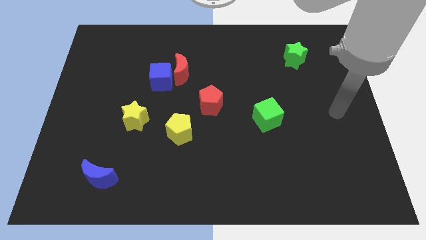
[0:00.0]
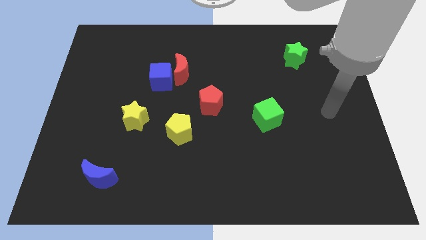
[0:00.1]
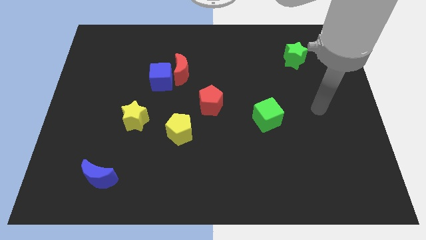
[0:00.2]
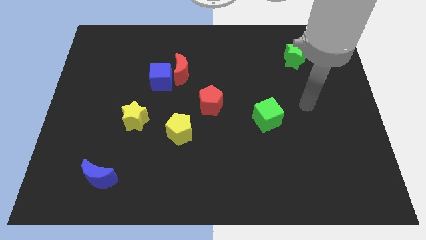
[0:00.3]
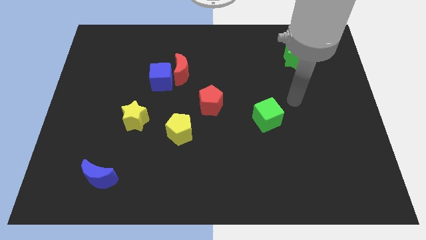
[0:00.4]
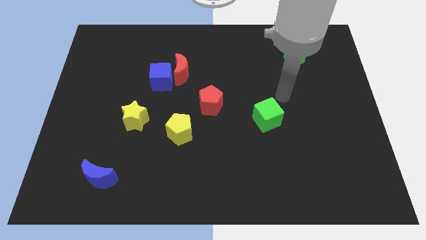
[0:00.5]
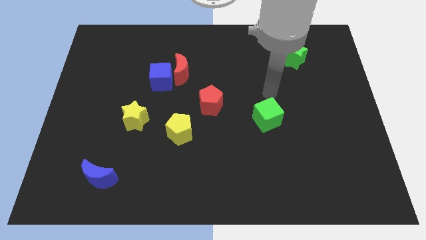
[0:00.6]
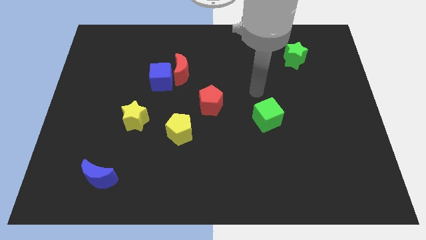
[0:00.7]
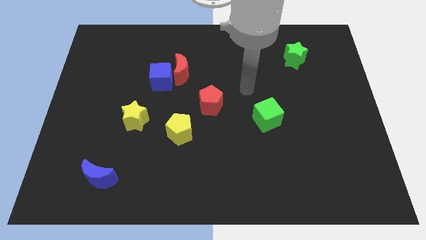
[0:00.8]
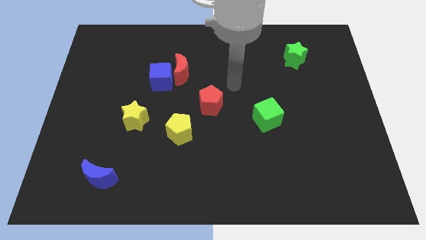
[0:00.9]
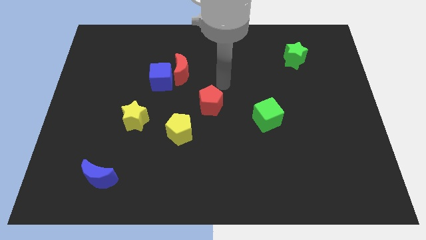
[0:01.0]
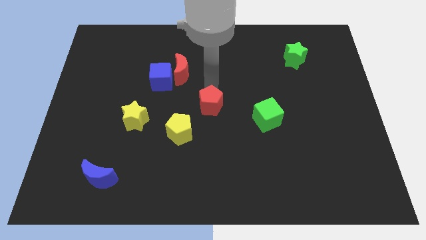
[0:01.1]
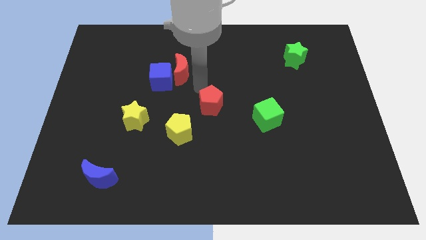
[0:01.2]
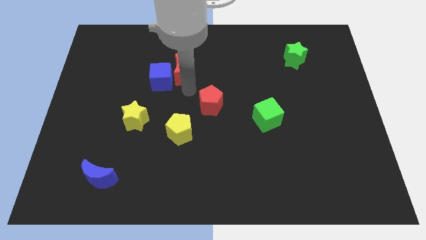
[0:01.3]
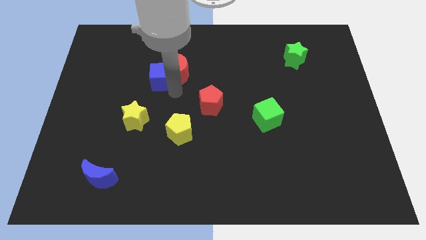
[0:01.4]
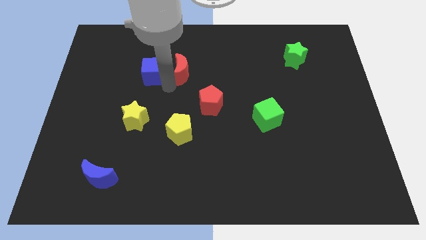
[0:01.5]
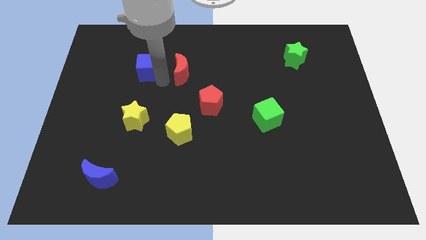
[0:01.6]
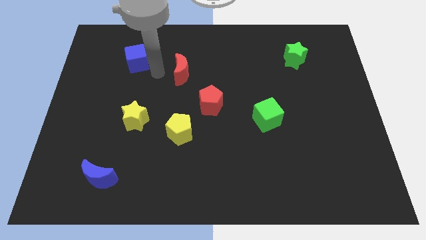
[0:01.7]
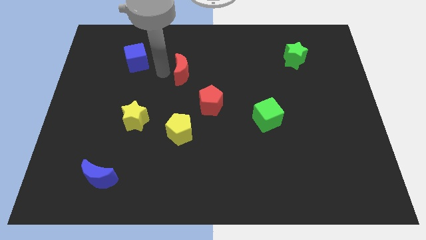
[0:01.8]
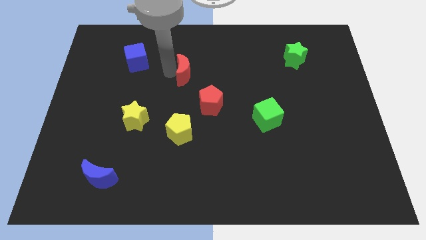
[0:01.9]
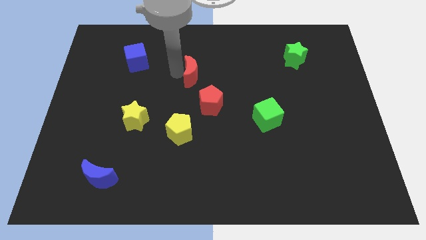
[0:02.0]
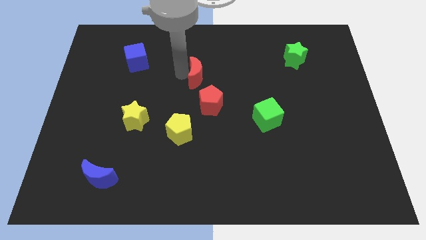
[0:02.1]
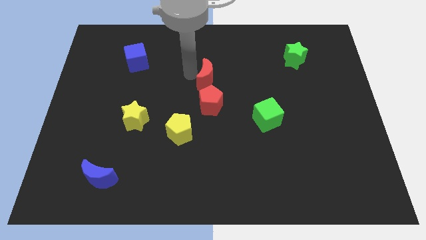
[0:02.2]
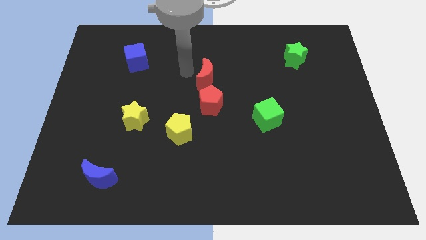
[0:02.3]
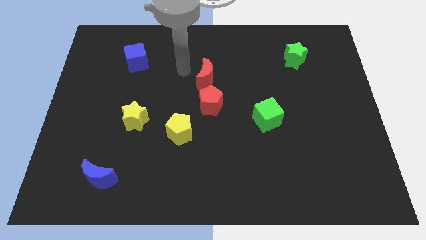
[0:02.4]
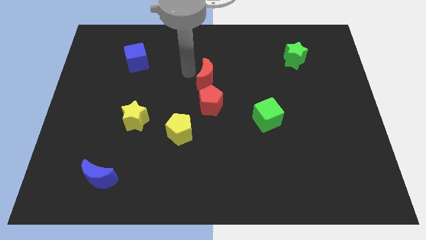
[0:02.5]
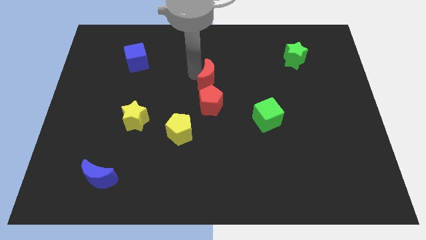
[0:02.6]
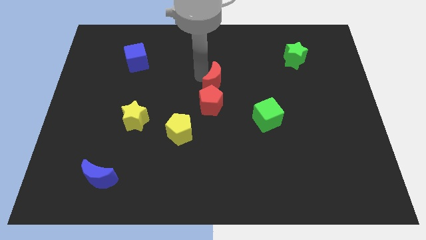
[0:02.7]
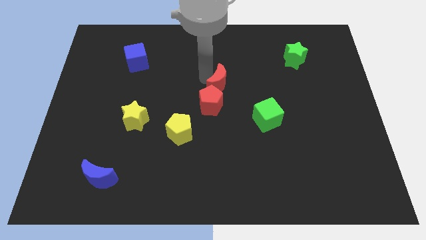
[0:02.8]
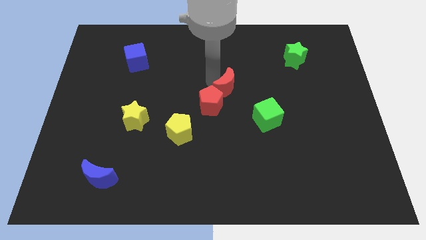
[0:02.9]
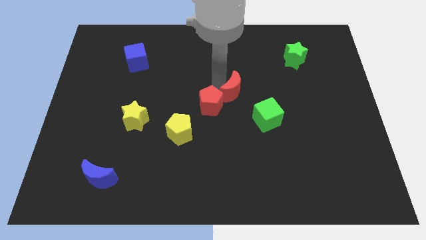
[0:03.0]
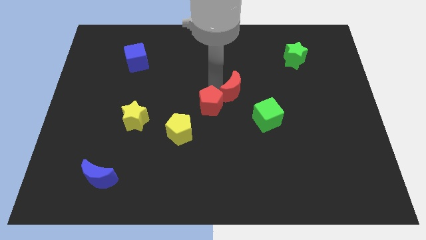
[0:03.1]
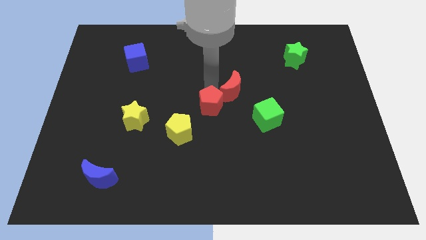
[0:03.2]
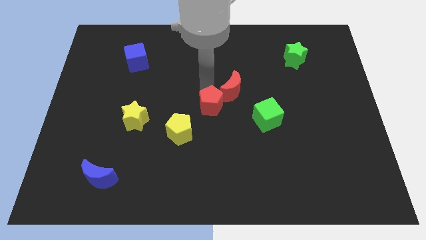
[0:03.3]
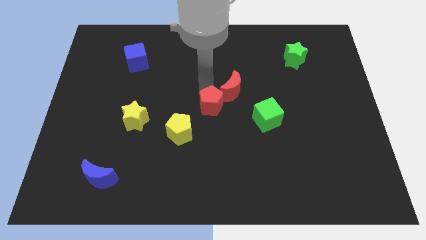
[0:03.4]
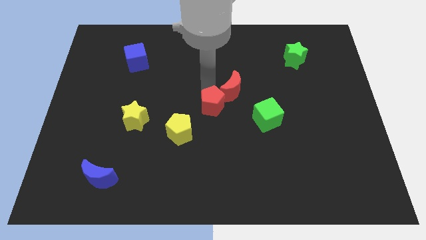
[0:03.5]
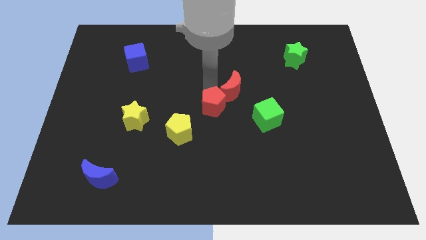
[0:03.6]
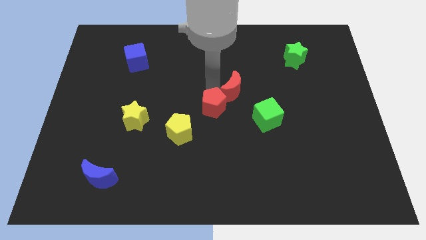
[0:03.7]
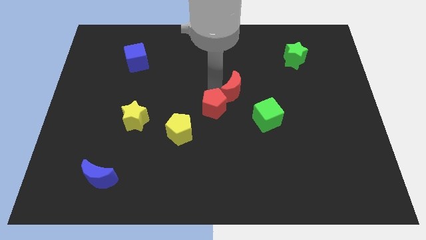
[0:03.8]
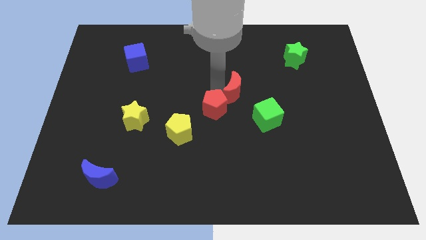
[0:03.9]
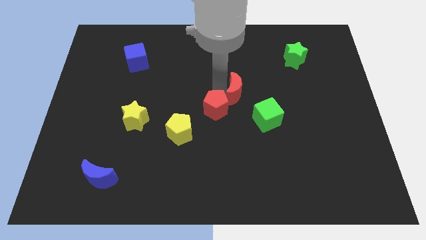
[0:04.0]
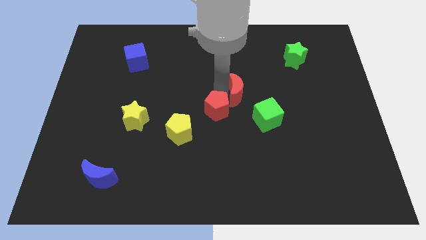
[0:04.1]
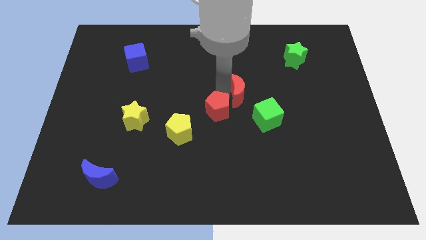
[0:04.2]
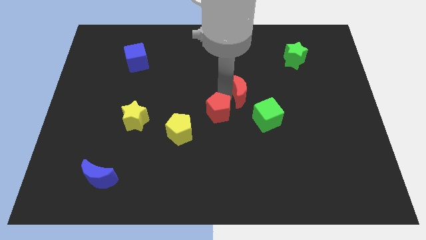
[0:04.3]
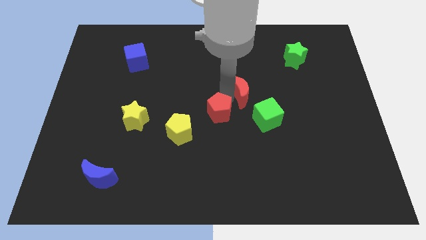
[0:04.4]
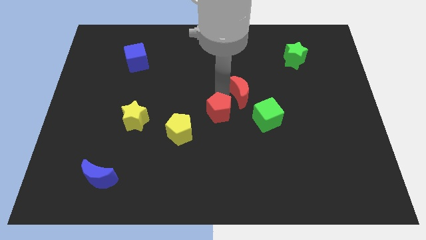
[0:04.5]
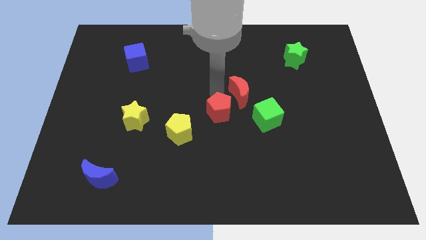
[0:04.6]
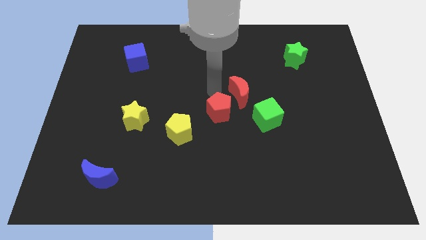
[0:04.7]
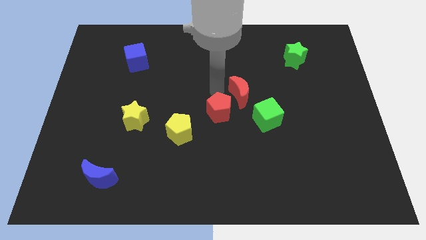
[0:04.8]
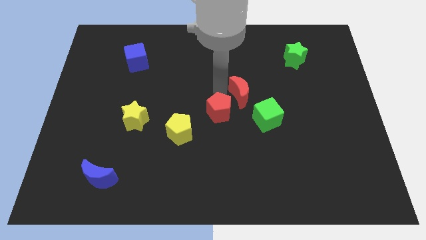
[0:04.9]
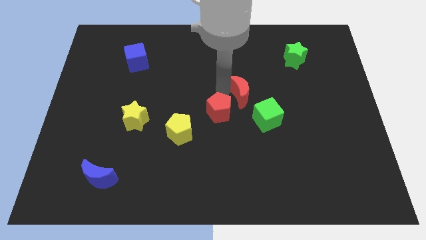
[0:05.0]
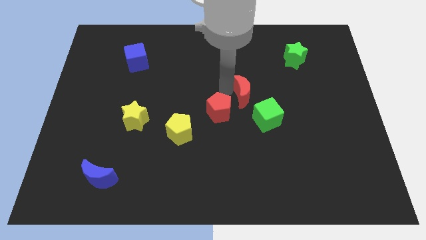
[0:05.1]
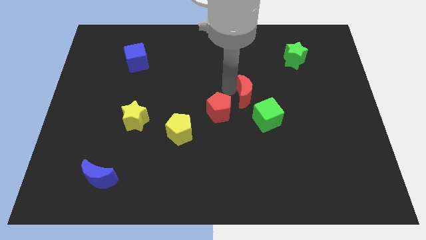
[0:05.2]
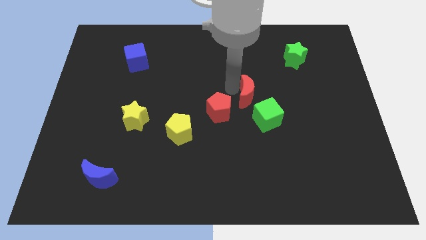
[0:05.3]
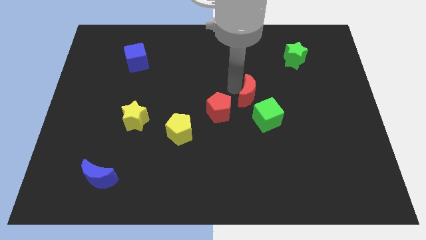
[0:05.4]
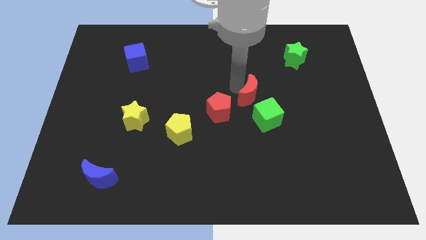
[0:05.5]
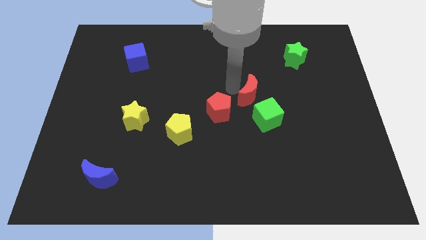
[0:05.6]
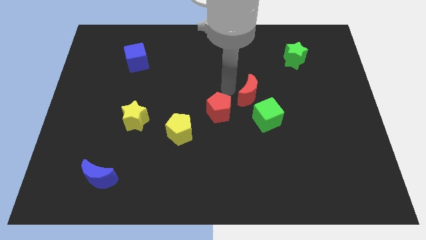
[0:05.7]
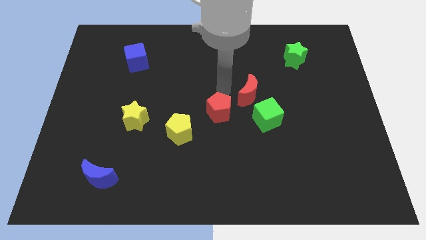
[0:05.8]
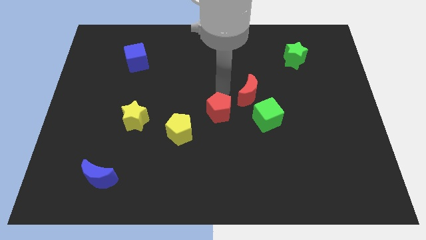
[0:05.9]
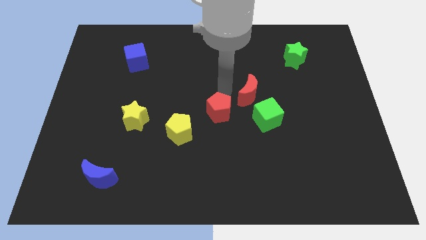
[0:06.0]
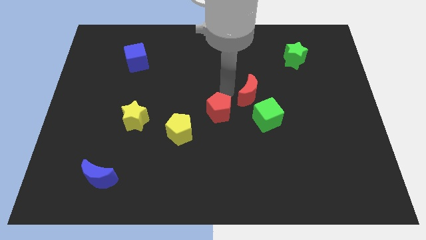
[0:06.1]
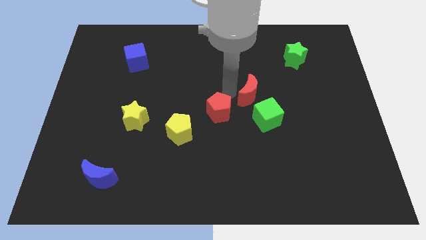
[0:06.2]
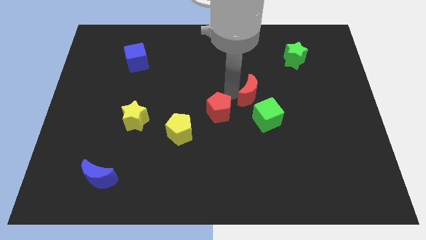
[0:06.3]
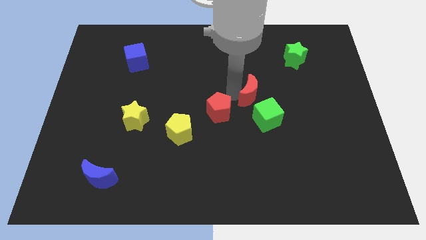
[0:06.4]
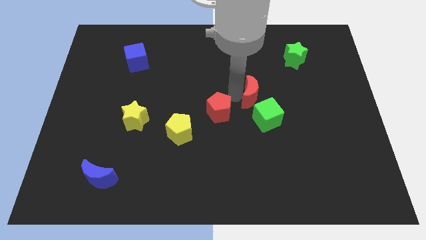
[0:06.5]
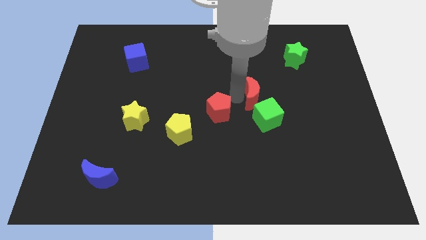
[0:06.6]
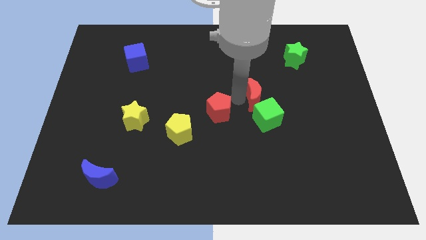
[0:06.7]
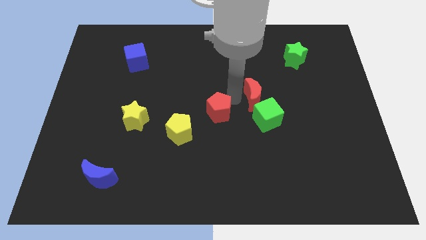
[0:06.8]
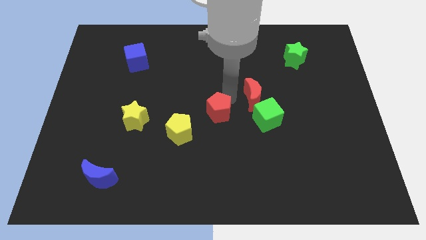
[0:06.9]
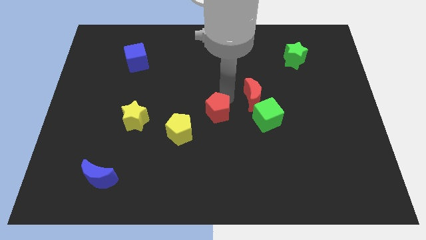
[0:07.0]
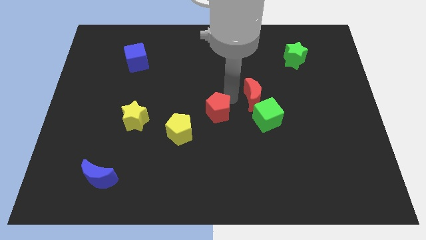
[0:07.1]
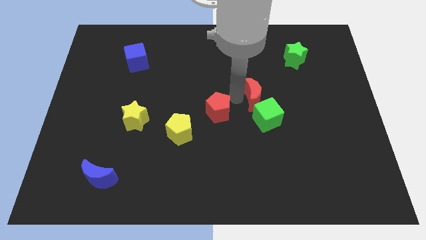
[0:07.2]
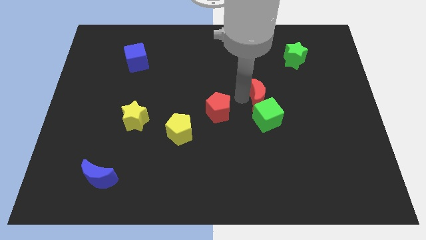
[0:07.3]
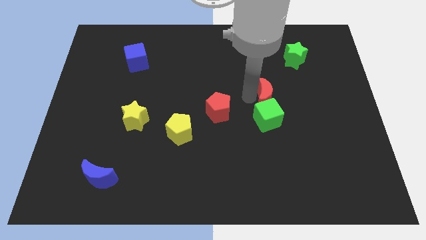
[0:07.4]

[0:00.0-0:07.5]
move the red moon diagonally up and to the right of the green cube
